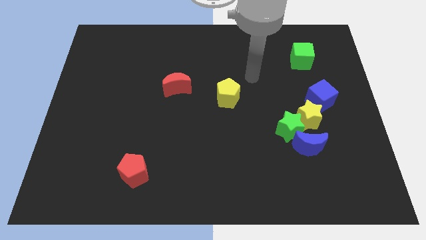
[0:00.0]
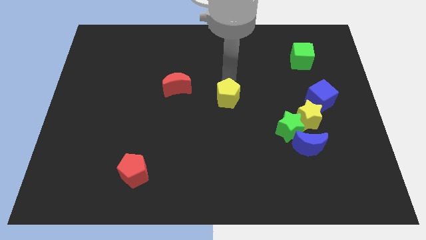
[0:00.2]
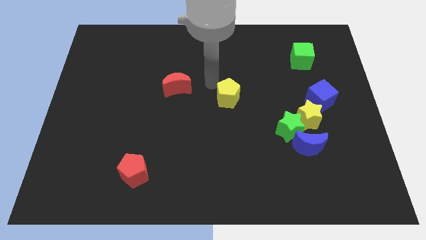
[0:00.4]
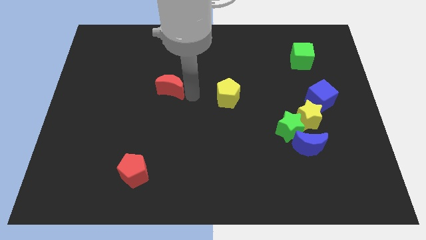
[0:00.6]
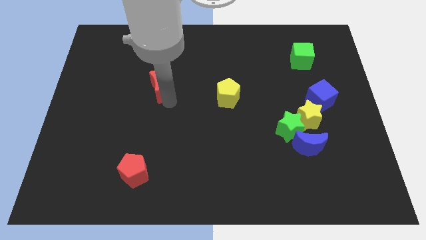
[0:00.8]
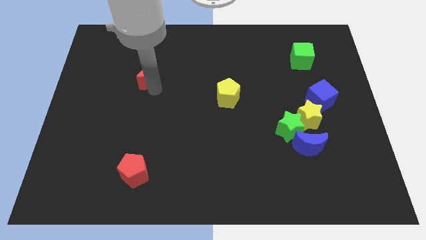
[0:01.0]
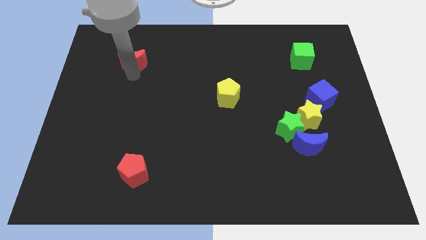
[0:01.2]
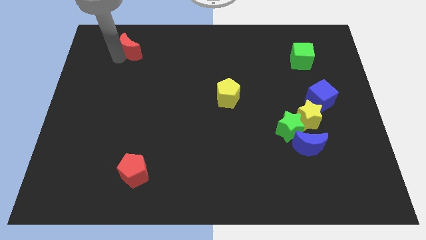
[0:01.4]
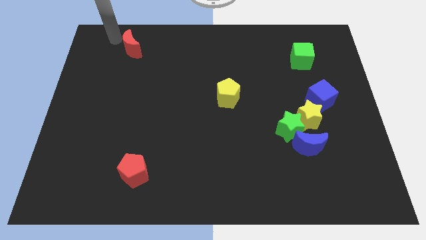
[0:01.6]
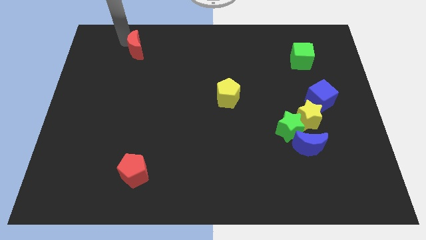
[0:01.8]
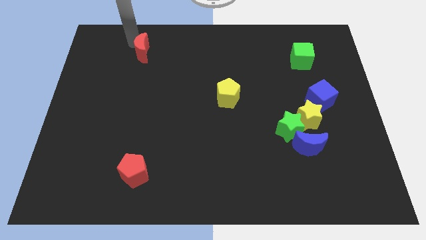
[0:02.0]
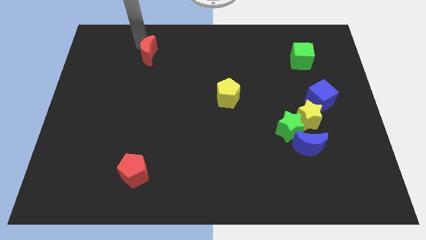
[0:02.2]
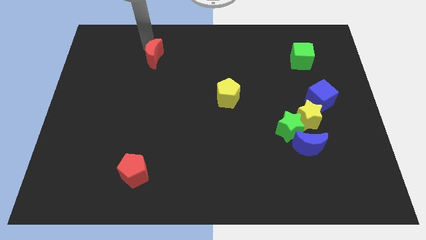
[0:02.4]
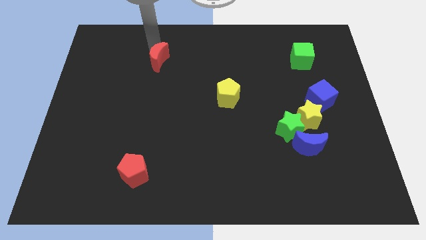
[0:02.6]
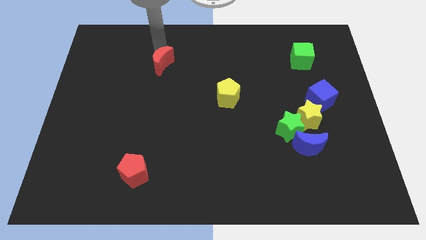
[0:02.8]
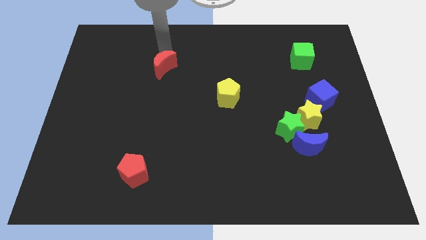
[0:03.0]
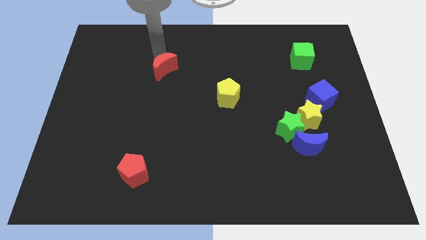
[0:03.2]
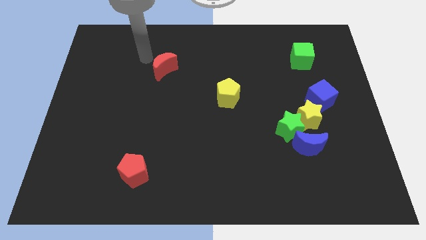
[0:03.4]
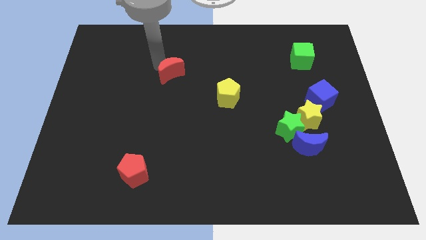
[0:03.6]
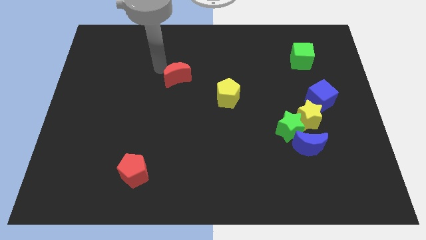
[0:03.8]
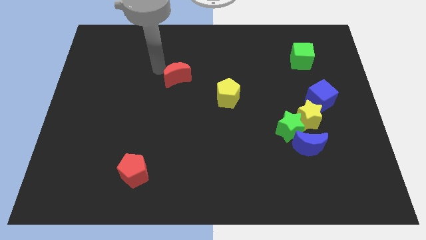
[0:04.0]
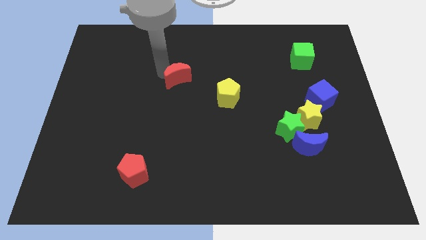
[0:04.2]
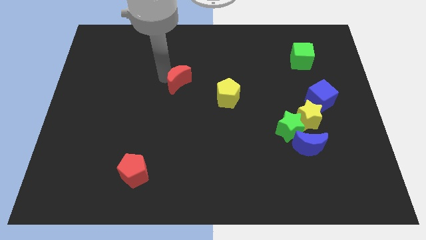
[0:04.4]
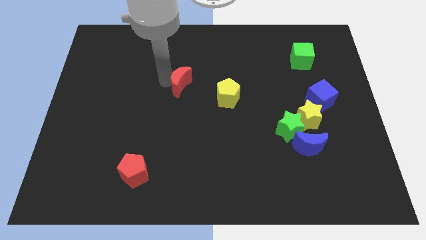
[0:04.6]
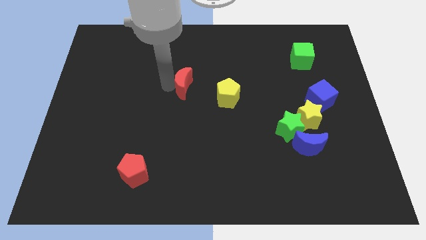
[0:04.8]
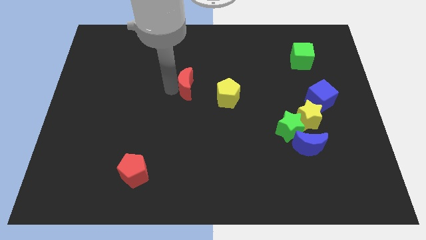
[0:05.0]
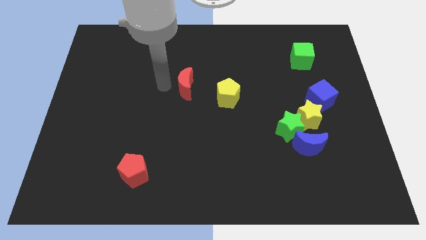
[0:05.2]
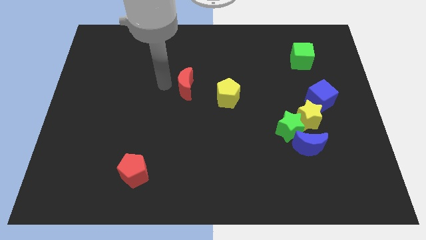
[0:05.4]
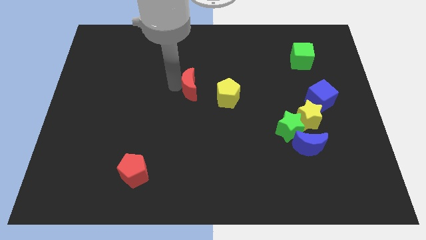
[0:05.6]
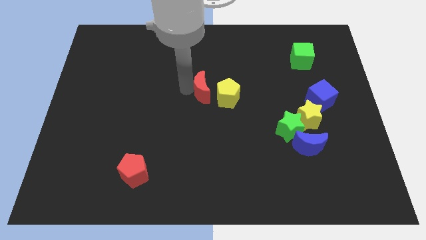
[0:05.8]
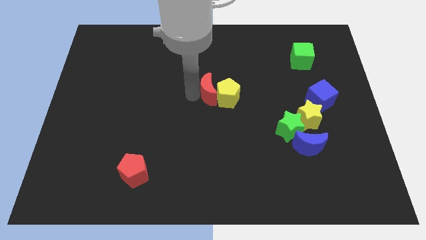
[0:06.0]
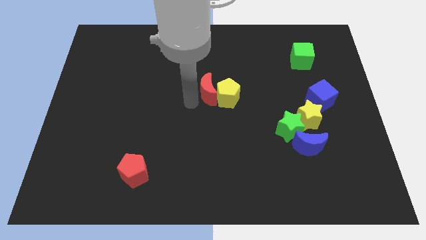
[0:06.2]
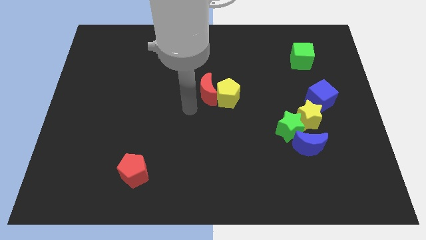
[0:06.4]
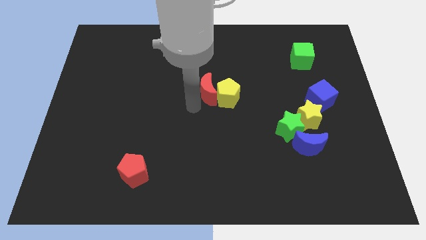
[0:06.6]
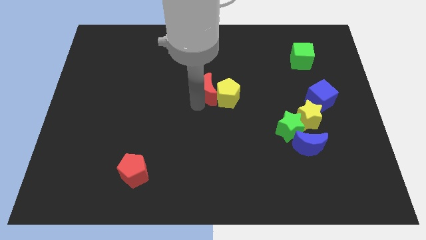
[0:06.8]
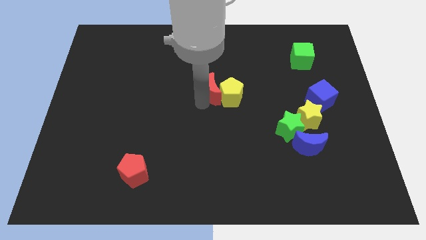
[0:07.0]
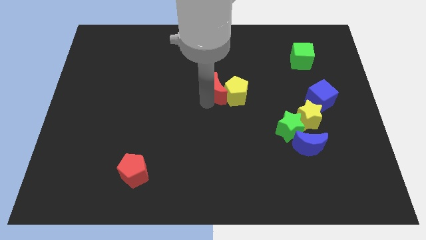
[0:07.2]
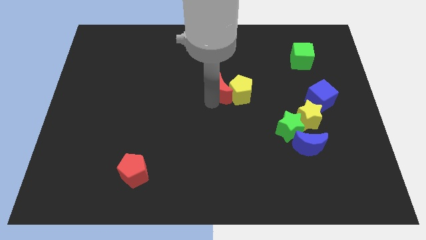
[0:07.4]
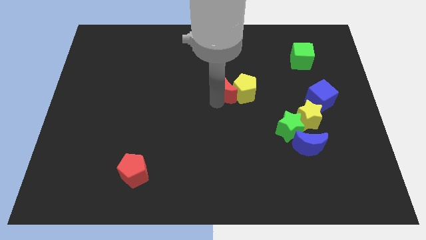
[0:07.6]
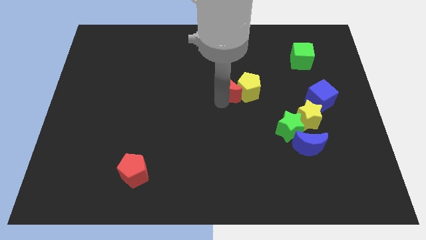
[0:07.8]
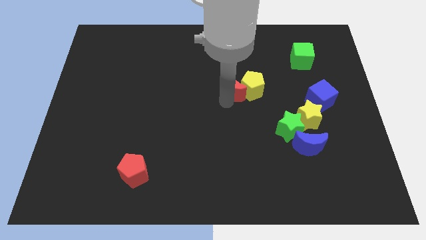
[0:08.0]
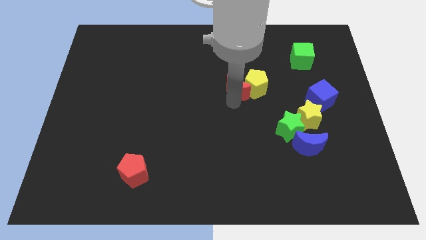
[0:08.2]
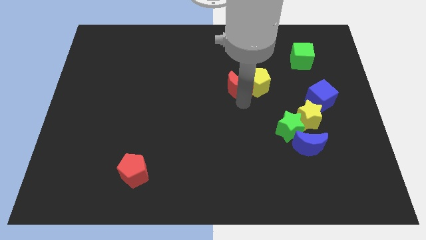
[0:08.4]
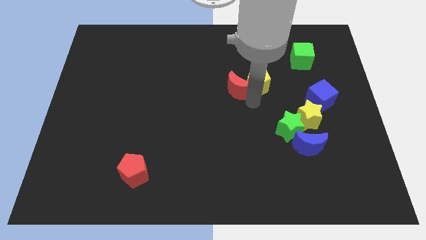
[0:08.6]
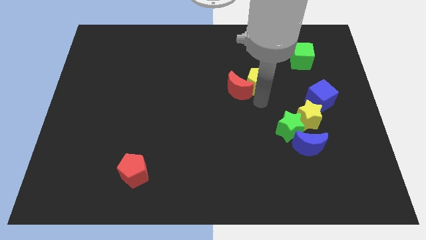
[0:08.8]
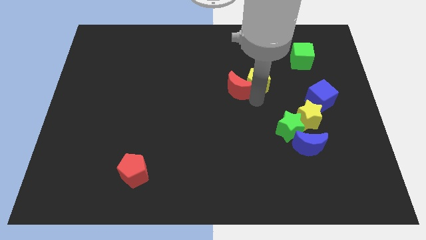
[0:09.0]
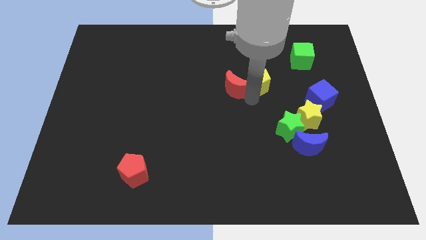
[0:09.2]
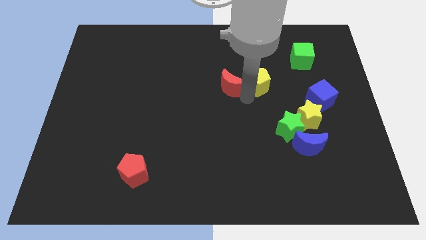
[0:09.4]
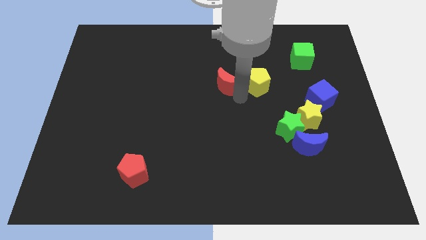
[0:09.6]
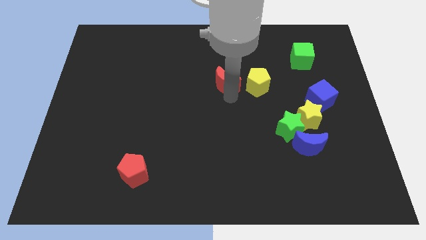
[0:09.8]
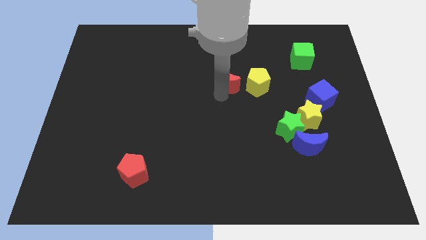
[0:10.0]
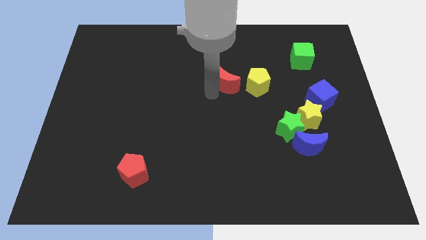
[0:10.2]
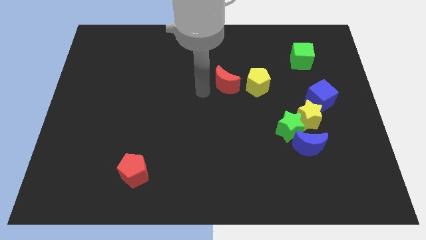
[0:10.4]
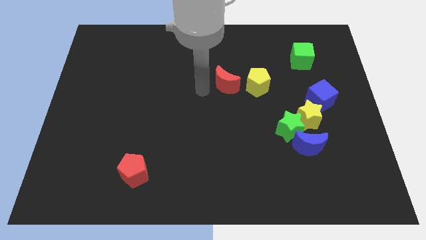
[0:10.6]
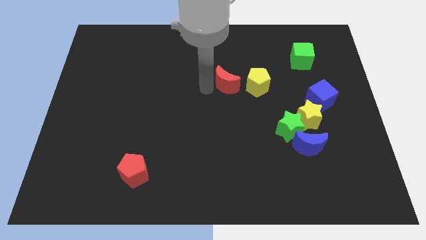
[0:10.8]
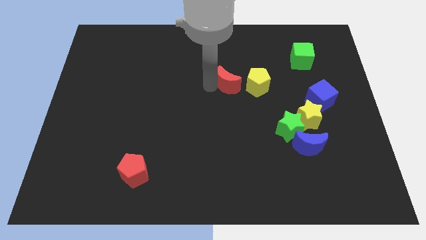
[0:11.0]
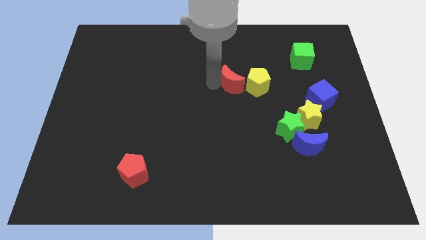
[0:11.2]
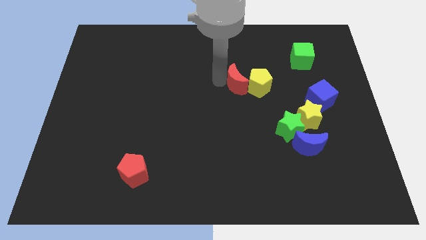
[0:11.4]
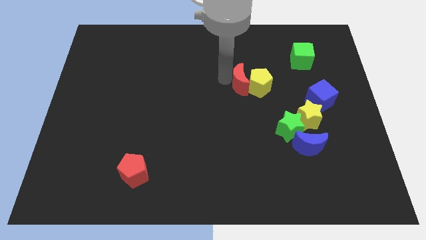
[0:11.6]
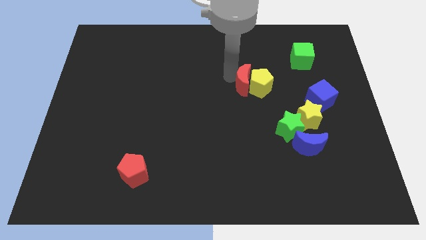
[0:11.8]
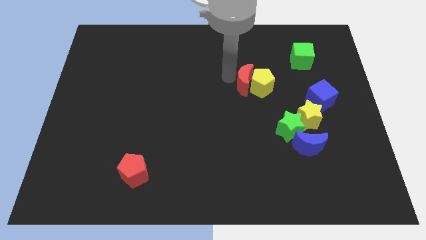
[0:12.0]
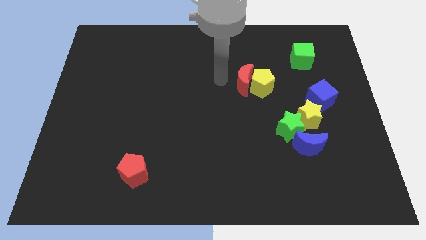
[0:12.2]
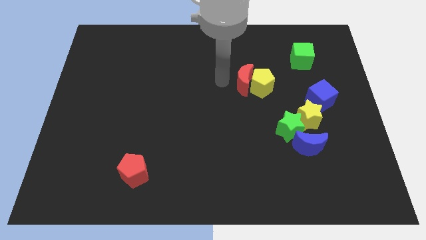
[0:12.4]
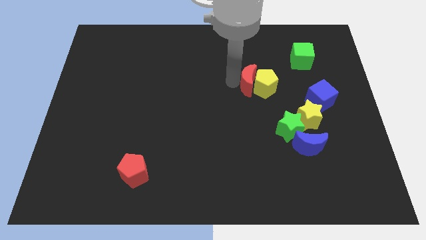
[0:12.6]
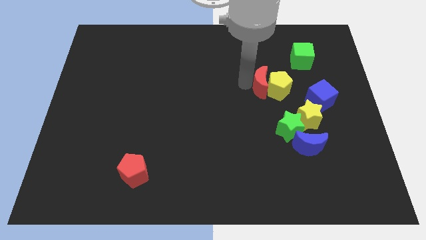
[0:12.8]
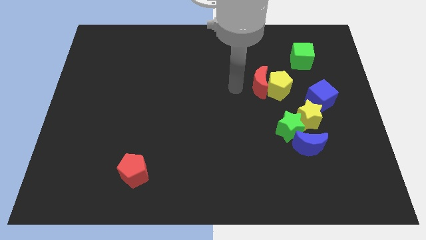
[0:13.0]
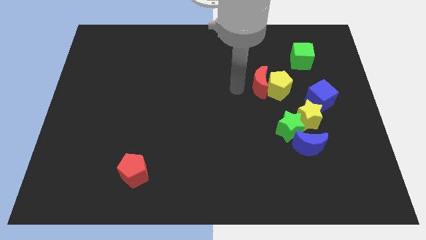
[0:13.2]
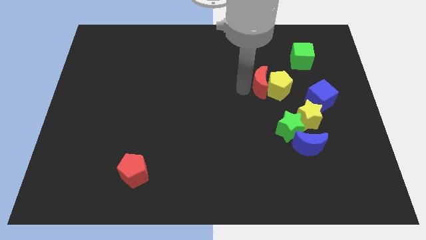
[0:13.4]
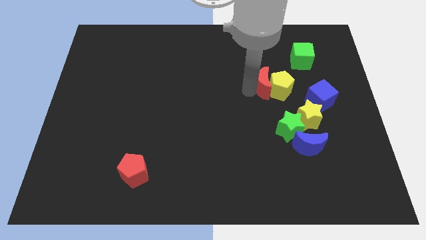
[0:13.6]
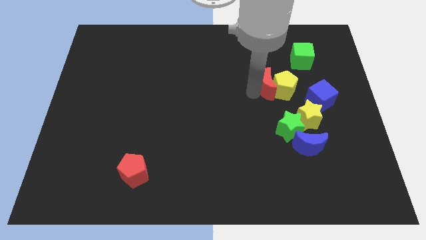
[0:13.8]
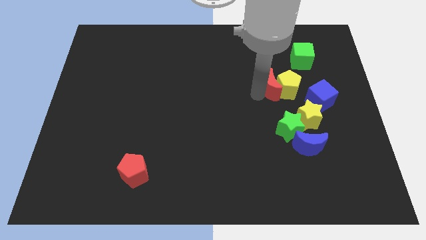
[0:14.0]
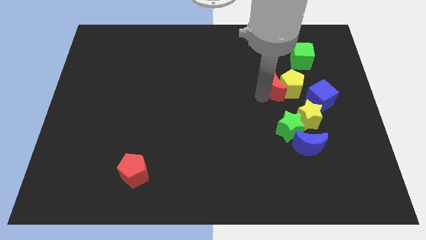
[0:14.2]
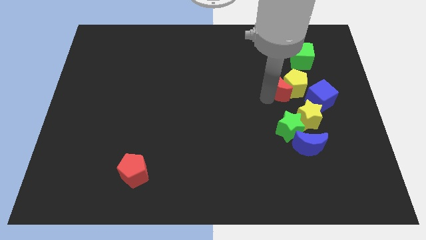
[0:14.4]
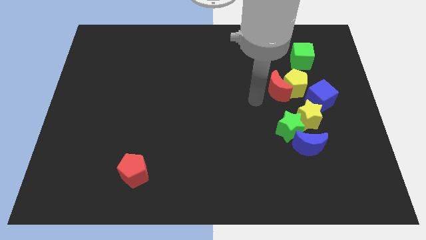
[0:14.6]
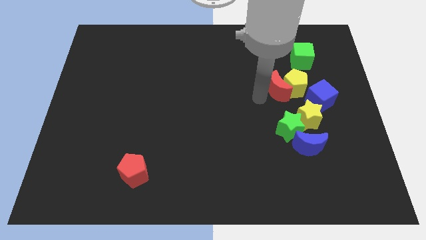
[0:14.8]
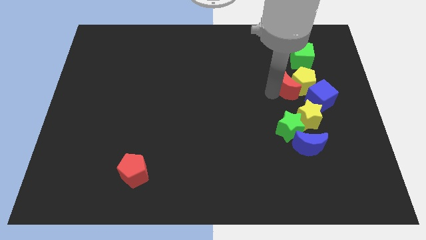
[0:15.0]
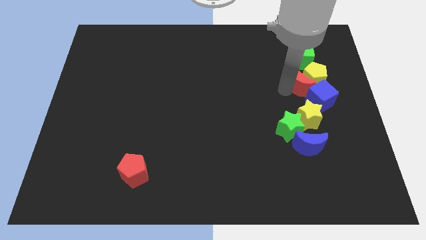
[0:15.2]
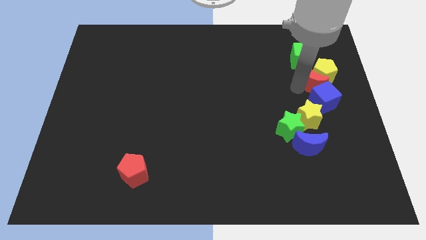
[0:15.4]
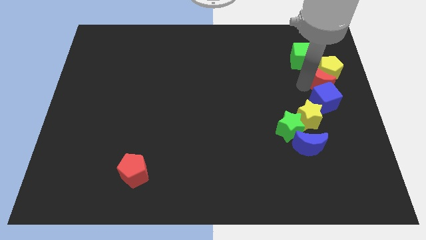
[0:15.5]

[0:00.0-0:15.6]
push the red moon to the center right
